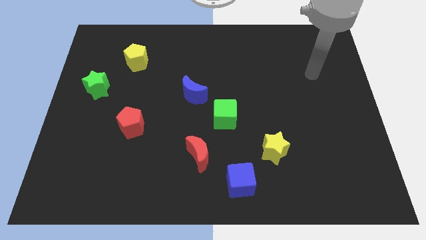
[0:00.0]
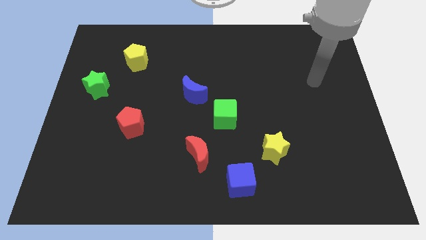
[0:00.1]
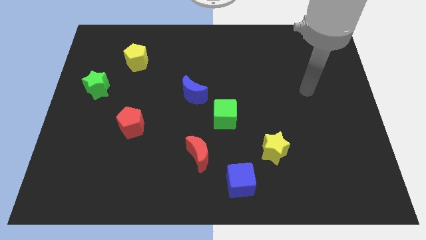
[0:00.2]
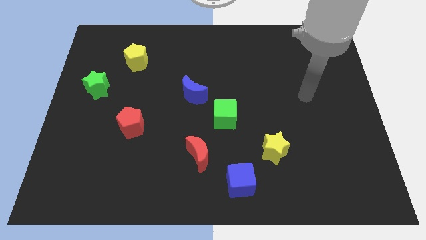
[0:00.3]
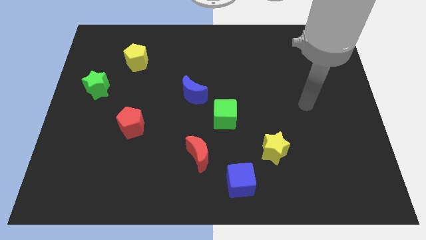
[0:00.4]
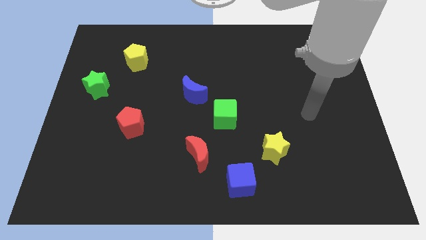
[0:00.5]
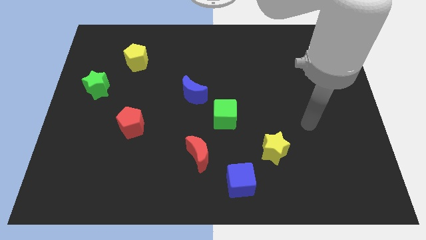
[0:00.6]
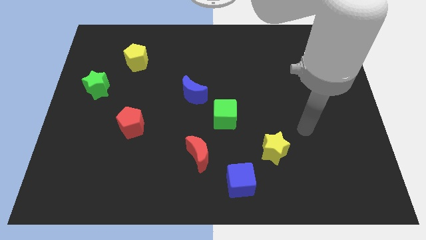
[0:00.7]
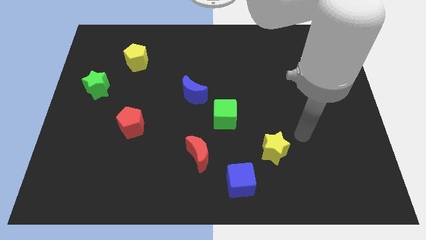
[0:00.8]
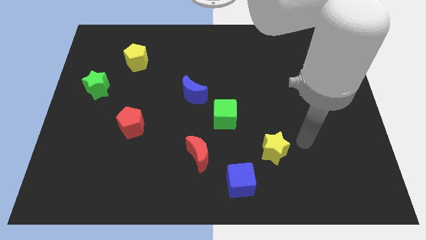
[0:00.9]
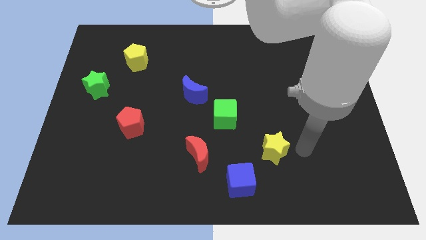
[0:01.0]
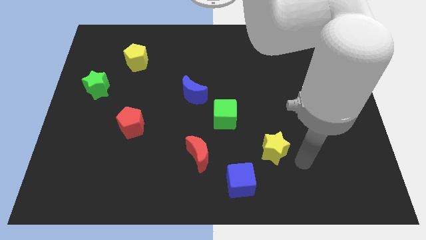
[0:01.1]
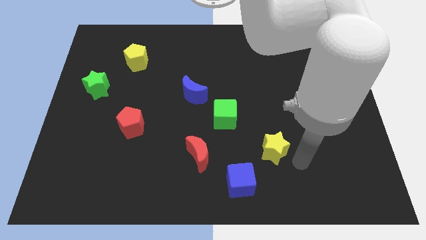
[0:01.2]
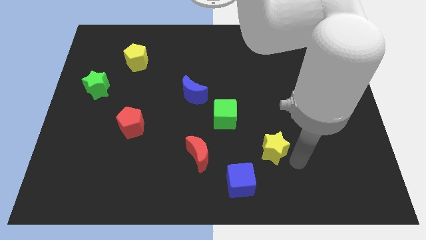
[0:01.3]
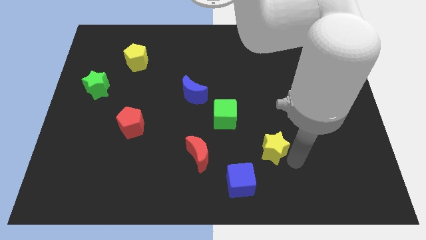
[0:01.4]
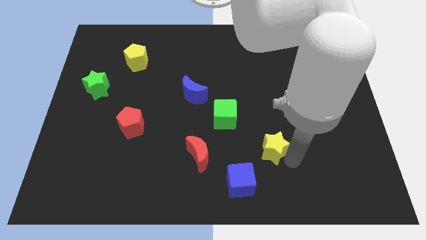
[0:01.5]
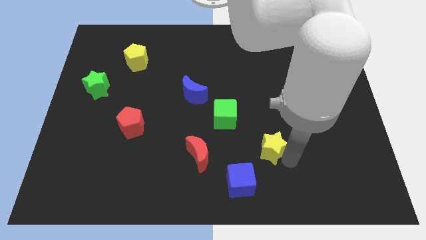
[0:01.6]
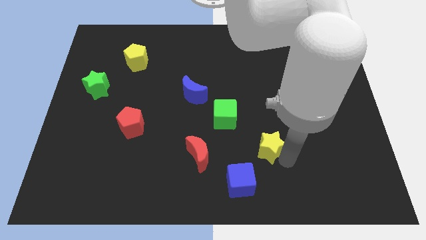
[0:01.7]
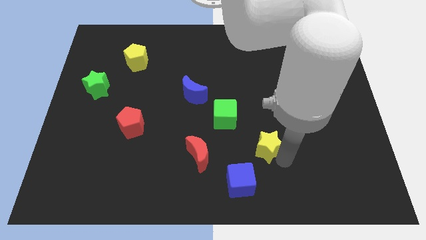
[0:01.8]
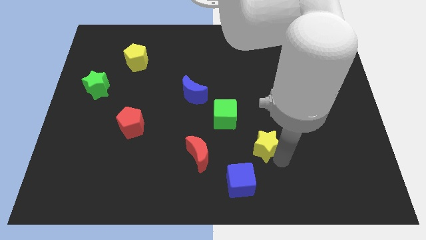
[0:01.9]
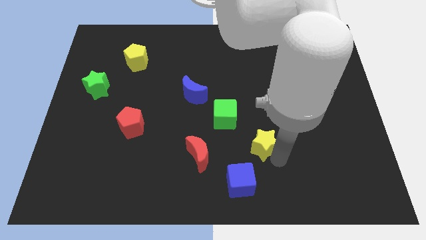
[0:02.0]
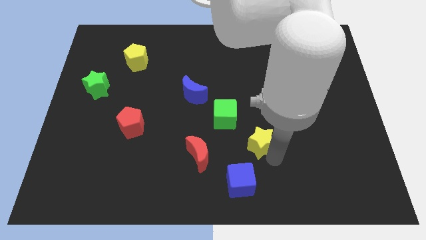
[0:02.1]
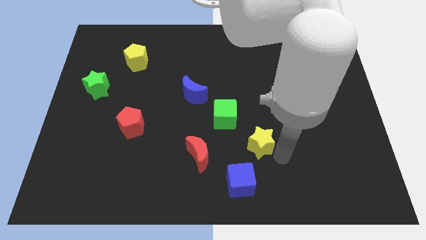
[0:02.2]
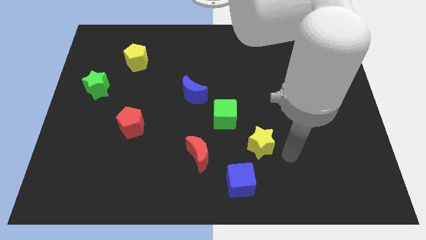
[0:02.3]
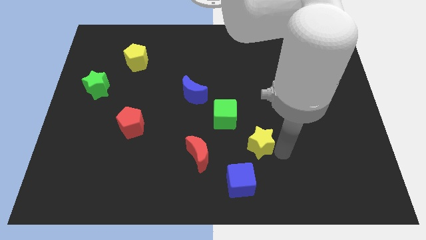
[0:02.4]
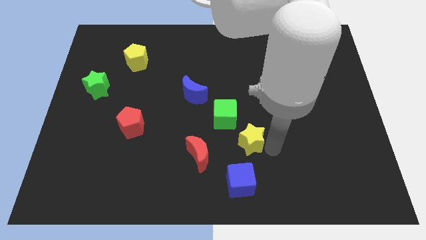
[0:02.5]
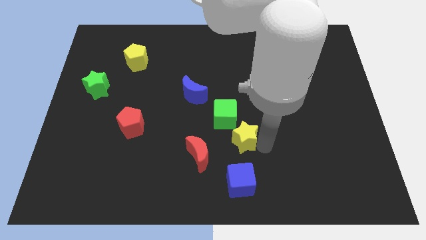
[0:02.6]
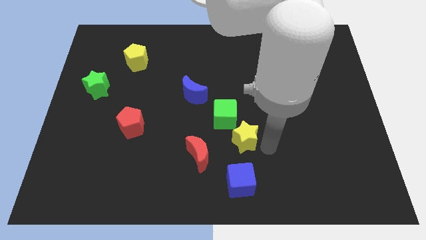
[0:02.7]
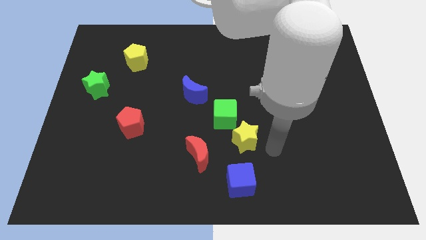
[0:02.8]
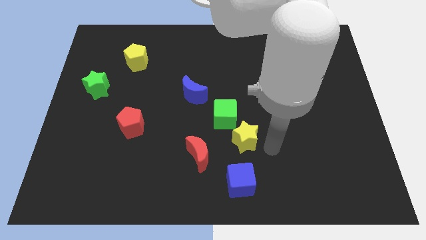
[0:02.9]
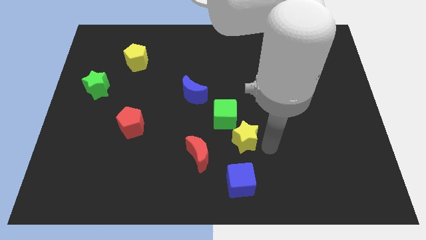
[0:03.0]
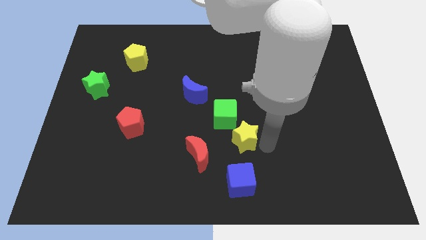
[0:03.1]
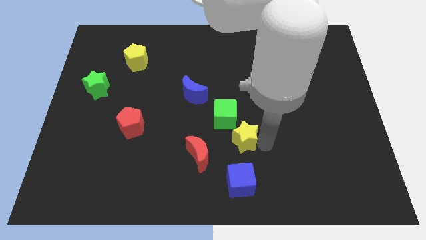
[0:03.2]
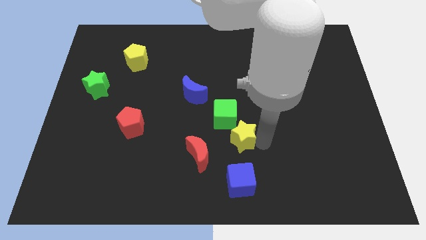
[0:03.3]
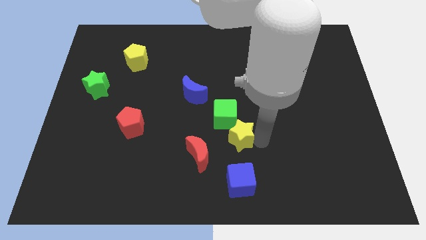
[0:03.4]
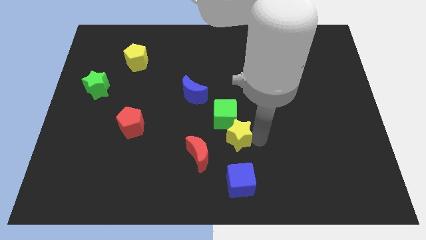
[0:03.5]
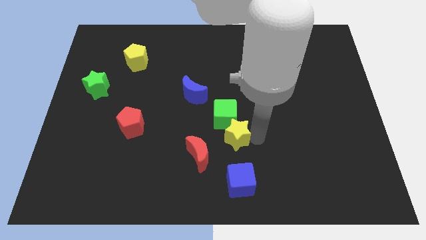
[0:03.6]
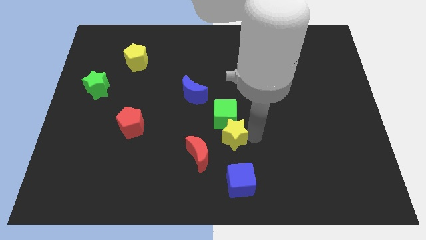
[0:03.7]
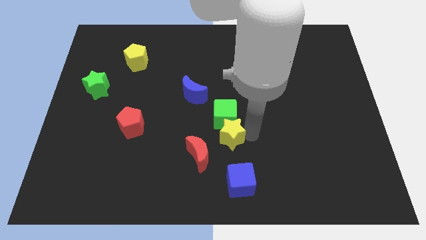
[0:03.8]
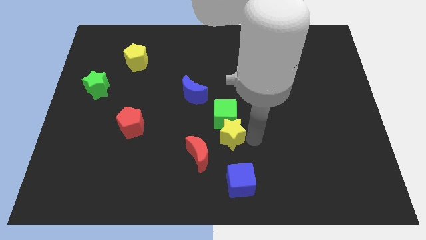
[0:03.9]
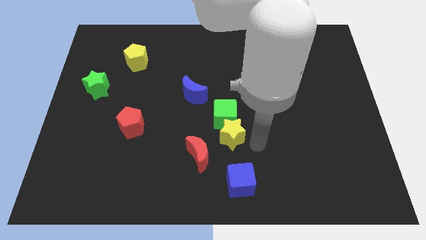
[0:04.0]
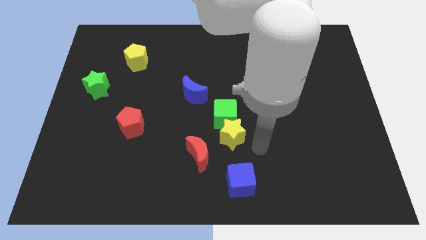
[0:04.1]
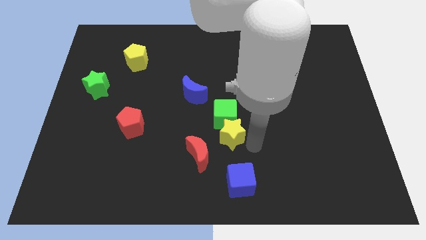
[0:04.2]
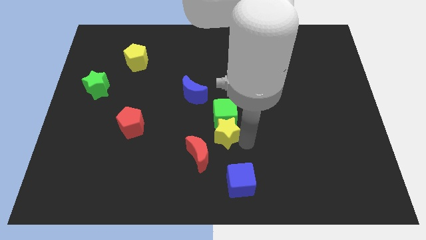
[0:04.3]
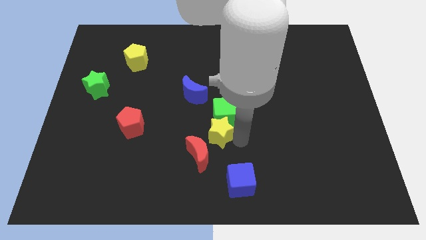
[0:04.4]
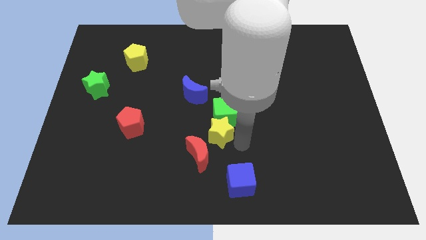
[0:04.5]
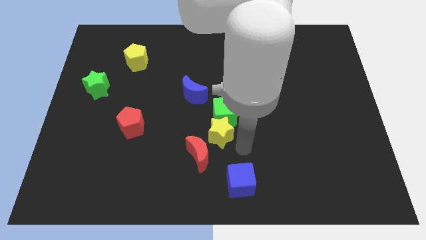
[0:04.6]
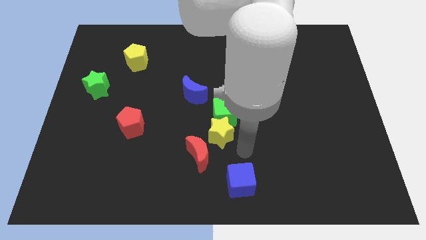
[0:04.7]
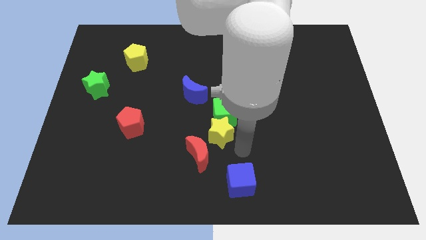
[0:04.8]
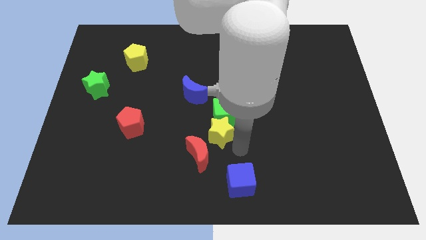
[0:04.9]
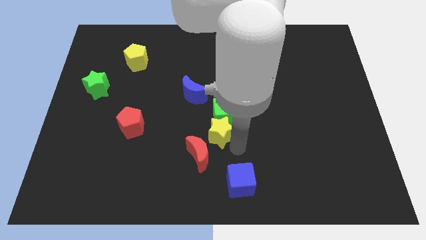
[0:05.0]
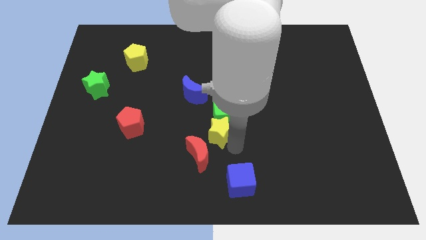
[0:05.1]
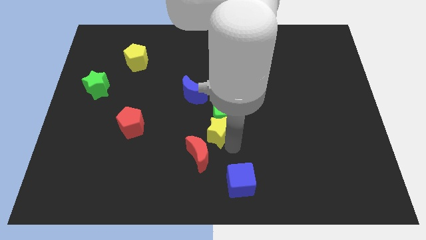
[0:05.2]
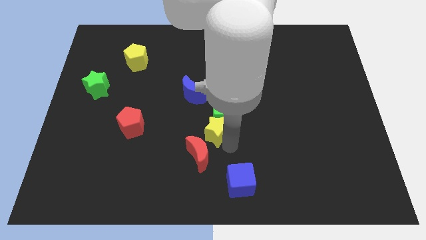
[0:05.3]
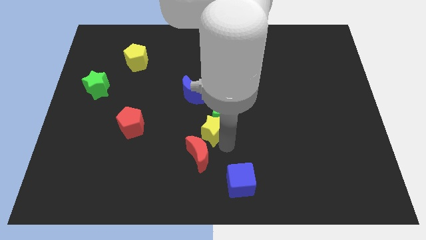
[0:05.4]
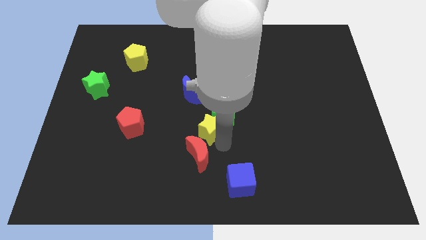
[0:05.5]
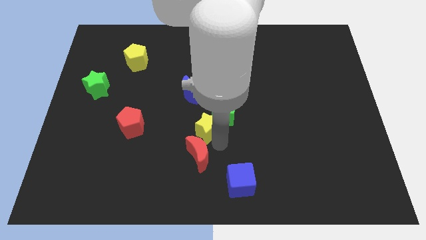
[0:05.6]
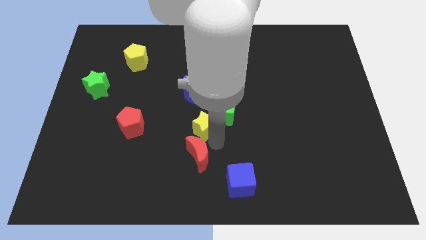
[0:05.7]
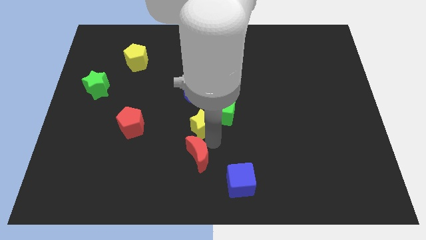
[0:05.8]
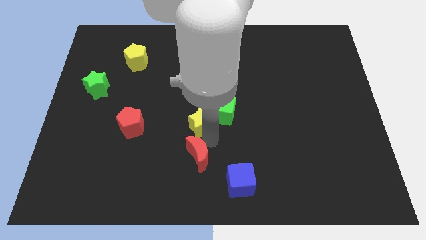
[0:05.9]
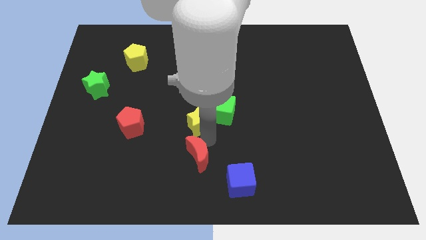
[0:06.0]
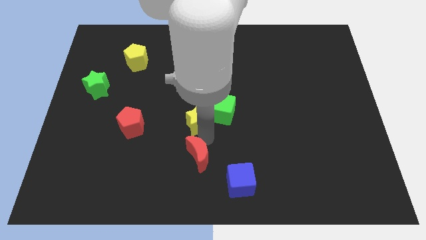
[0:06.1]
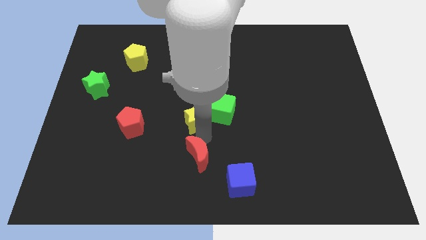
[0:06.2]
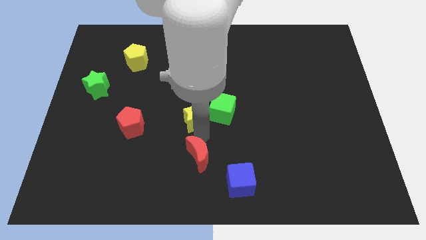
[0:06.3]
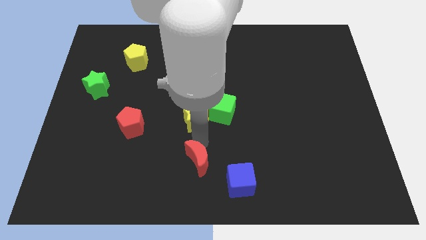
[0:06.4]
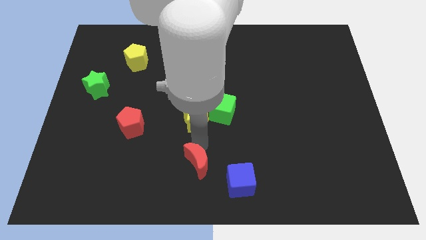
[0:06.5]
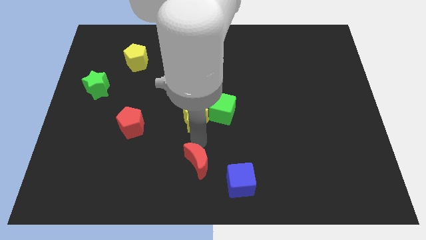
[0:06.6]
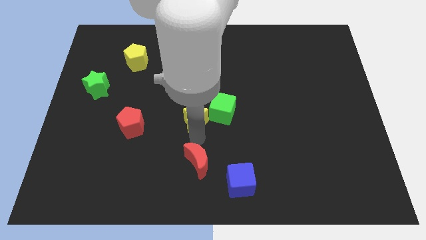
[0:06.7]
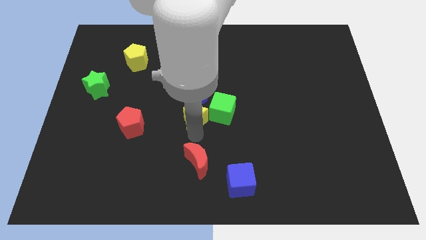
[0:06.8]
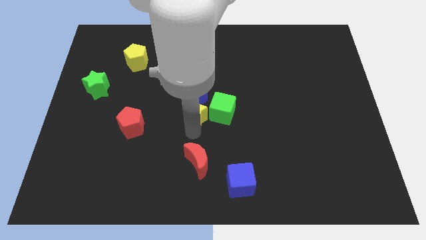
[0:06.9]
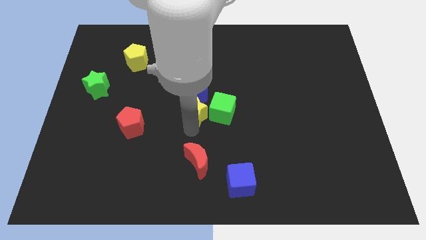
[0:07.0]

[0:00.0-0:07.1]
slide the yellow star close to the blue moon

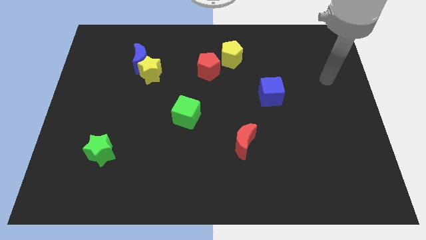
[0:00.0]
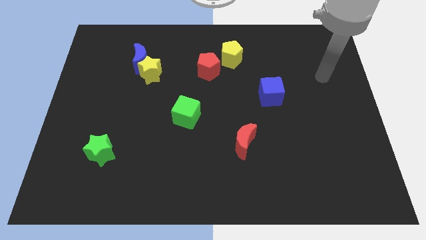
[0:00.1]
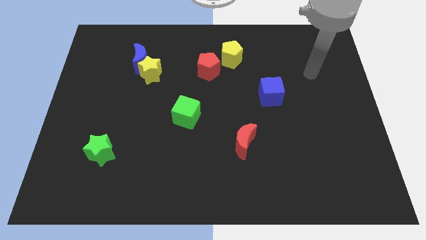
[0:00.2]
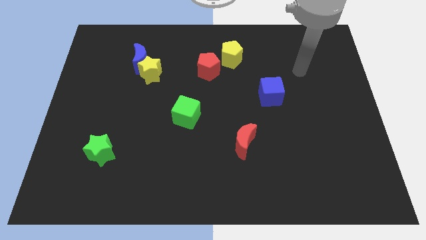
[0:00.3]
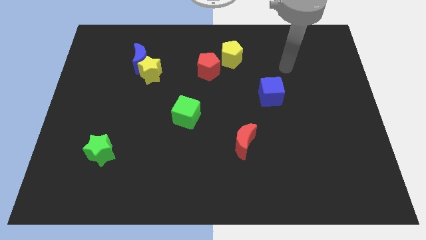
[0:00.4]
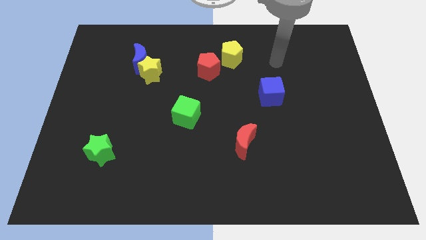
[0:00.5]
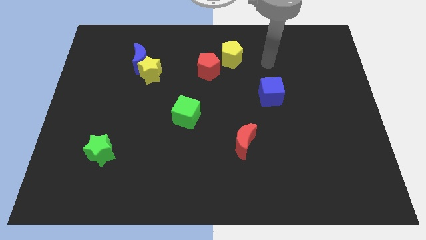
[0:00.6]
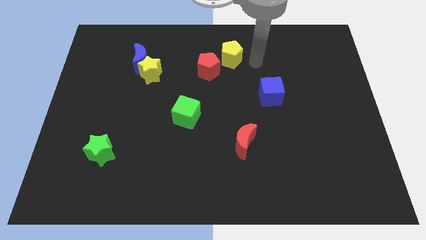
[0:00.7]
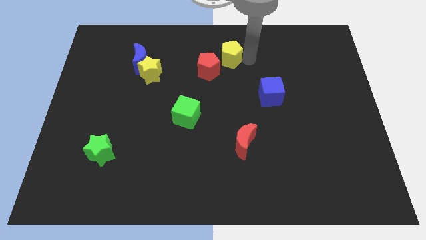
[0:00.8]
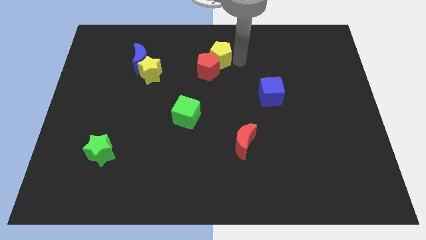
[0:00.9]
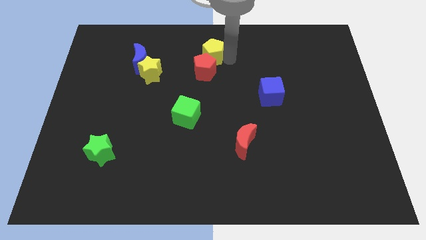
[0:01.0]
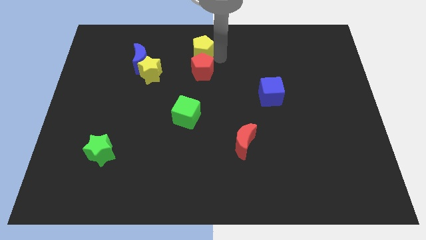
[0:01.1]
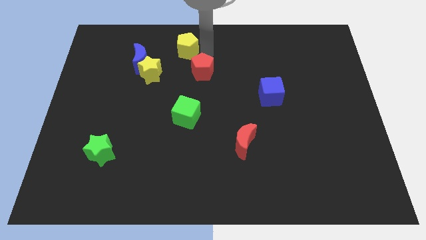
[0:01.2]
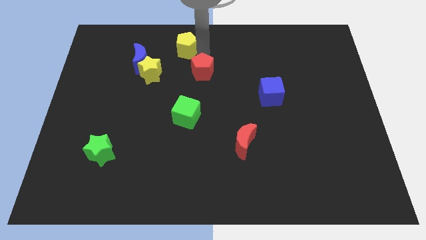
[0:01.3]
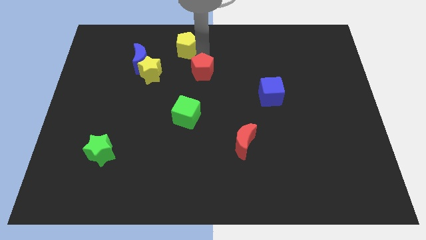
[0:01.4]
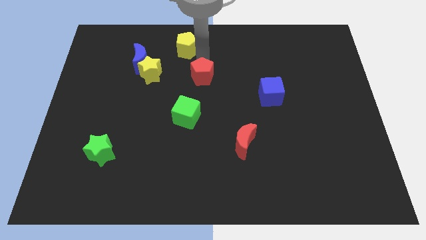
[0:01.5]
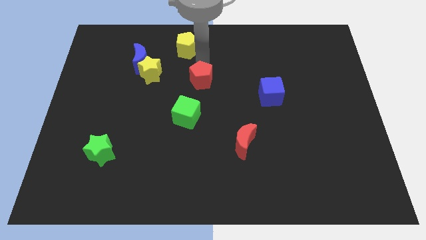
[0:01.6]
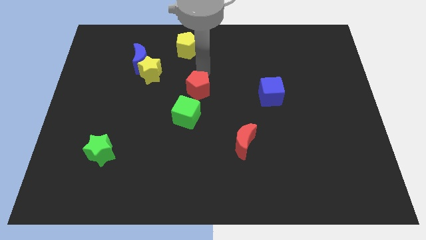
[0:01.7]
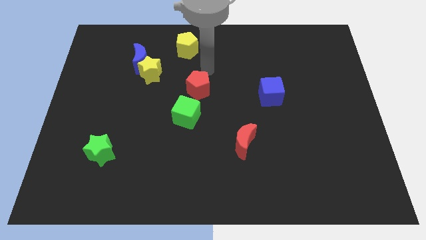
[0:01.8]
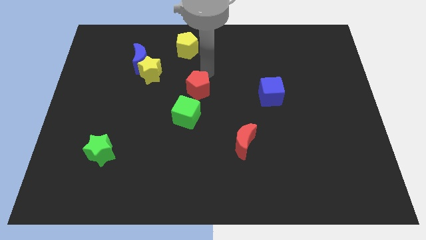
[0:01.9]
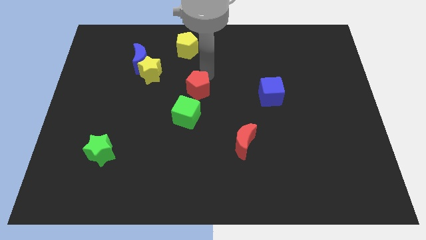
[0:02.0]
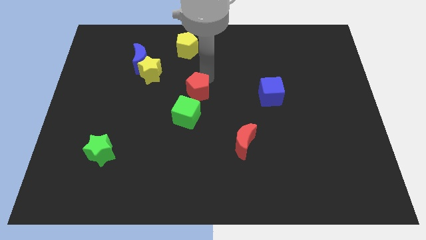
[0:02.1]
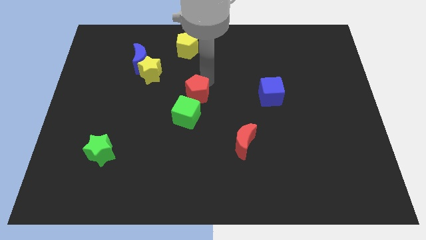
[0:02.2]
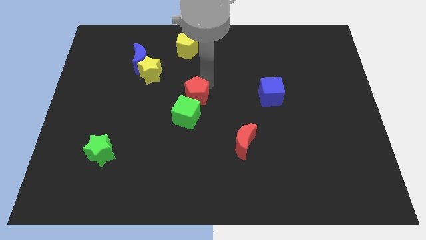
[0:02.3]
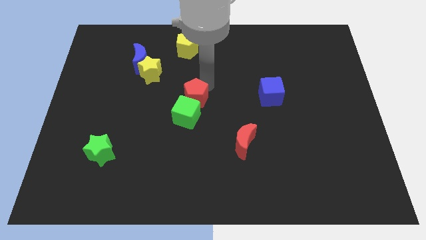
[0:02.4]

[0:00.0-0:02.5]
push the red pentagon to the green cube
